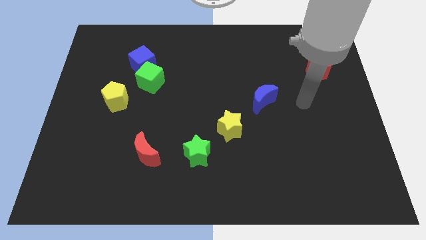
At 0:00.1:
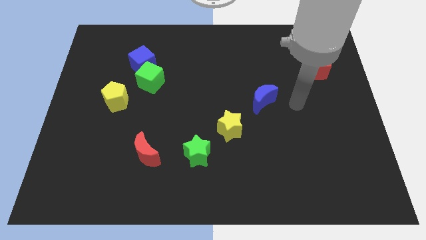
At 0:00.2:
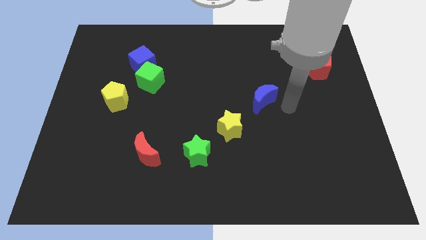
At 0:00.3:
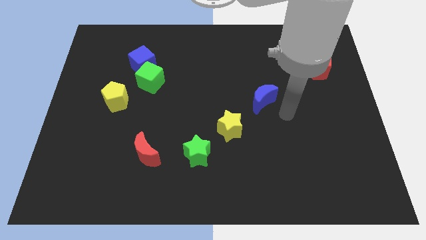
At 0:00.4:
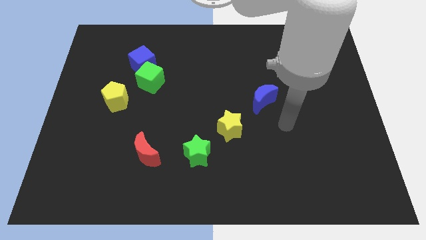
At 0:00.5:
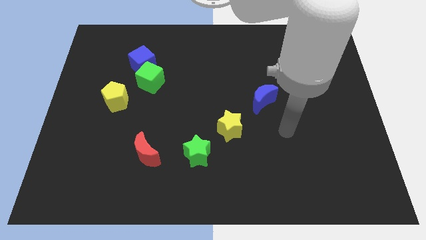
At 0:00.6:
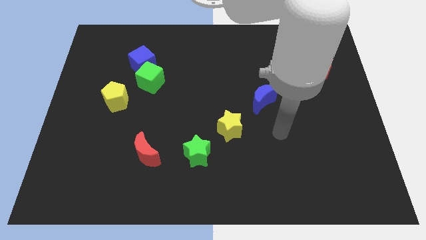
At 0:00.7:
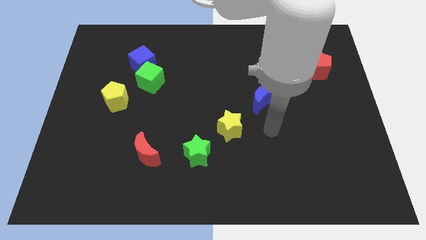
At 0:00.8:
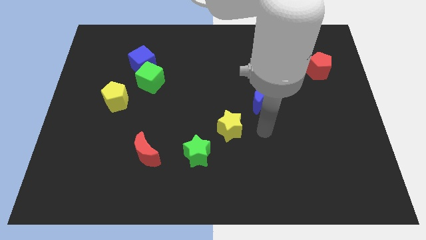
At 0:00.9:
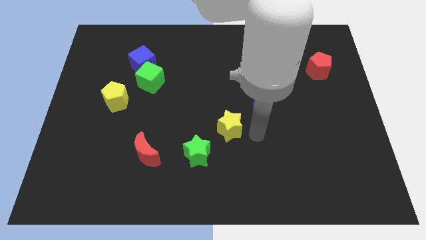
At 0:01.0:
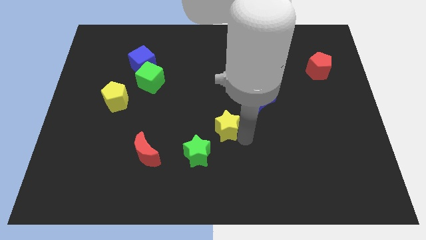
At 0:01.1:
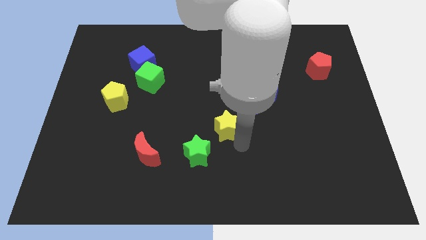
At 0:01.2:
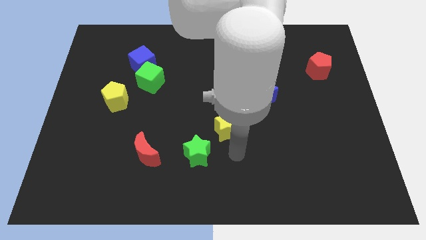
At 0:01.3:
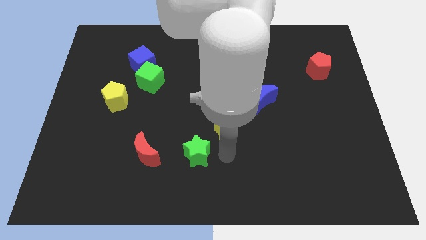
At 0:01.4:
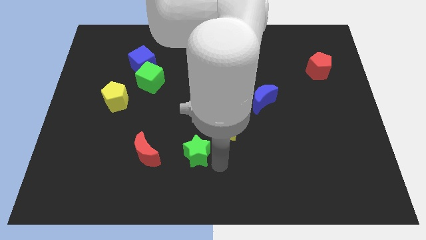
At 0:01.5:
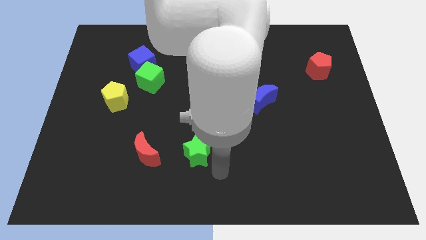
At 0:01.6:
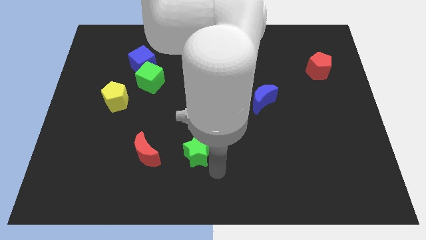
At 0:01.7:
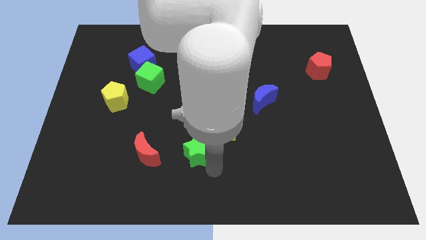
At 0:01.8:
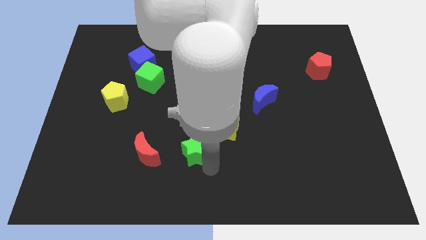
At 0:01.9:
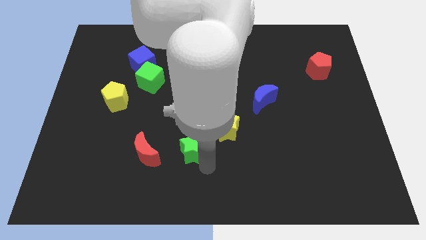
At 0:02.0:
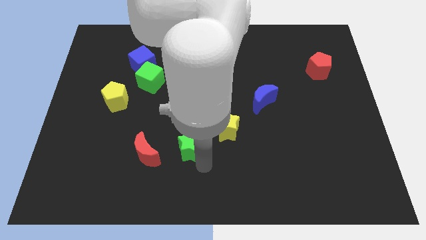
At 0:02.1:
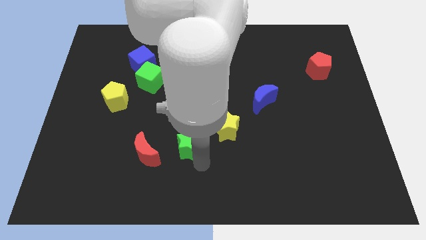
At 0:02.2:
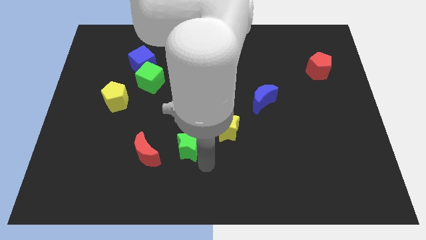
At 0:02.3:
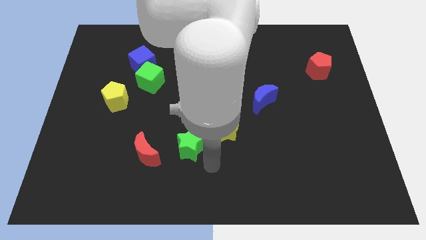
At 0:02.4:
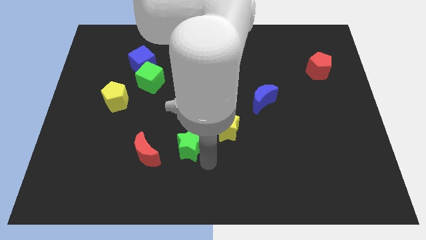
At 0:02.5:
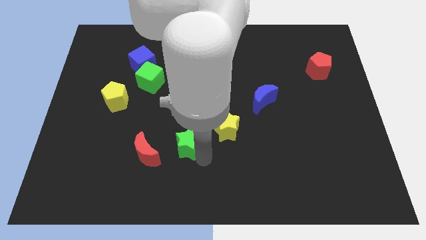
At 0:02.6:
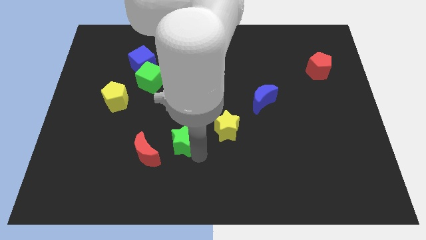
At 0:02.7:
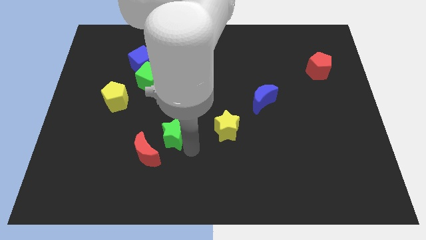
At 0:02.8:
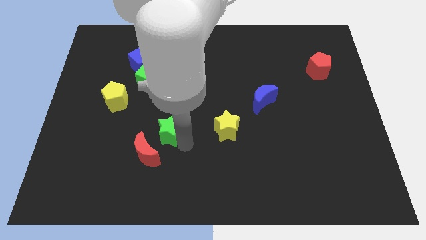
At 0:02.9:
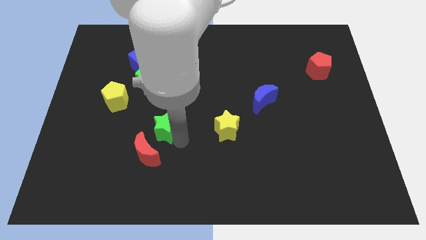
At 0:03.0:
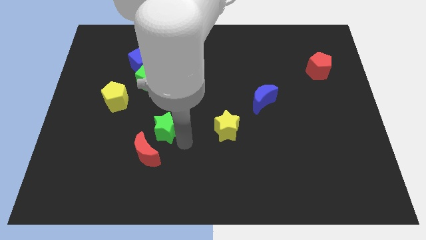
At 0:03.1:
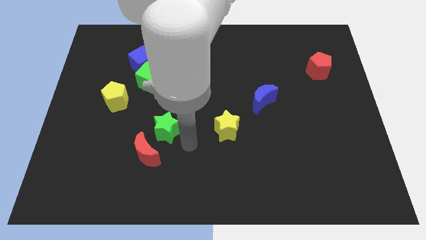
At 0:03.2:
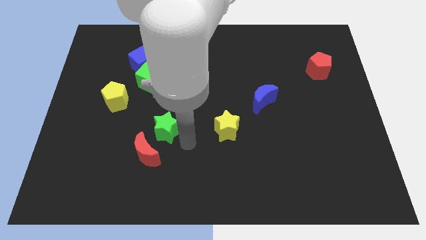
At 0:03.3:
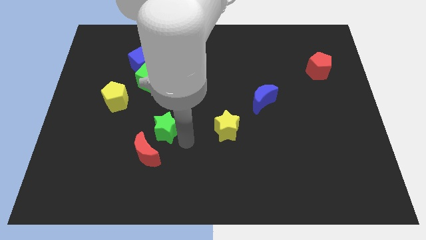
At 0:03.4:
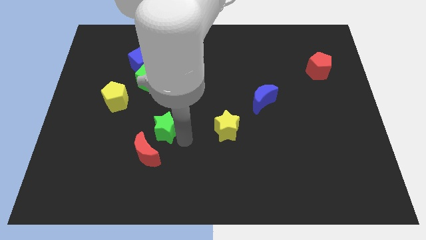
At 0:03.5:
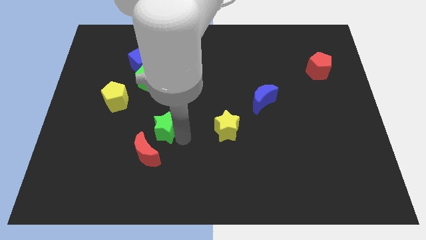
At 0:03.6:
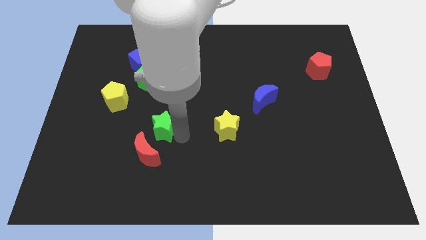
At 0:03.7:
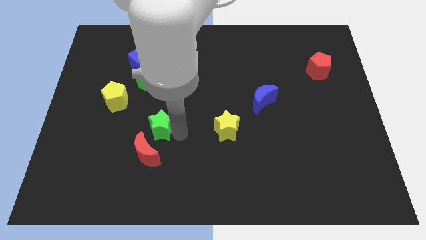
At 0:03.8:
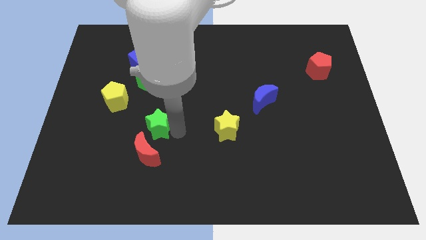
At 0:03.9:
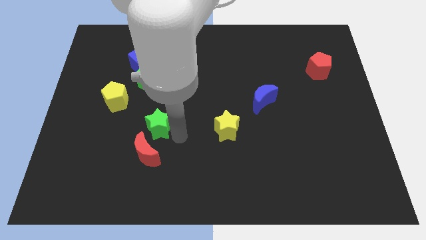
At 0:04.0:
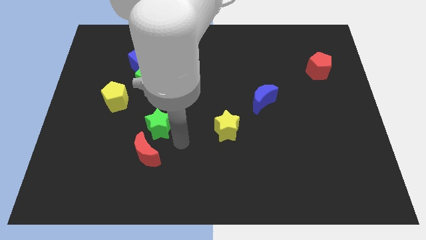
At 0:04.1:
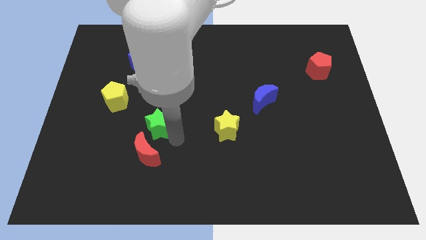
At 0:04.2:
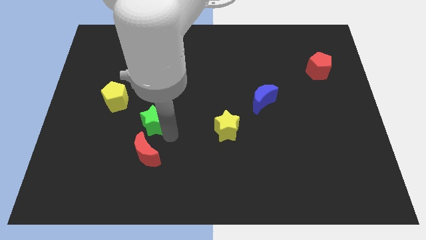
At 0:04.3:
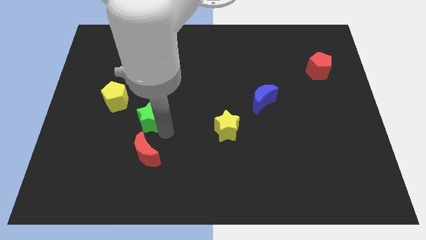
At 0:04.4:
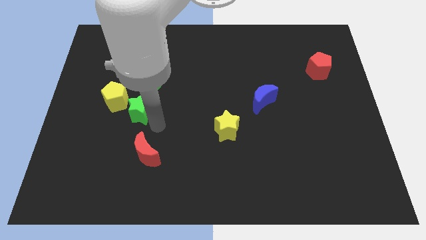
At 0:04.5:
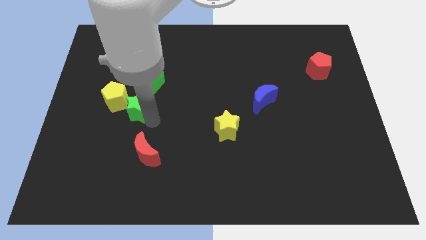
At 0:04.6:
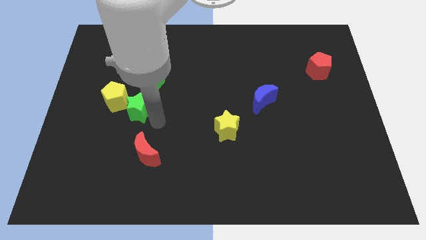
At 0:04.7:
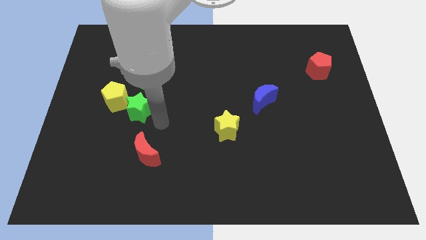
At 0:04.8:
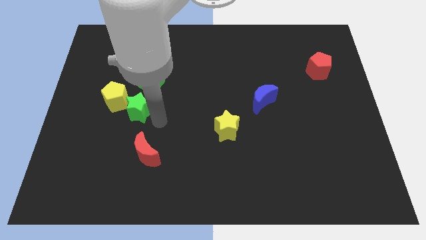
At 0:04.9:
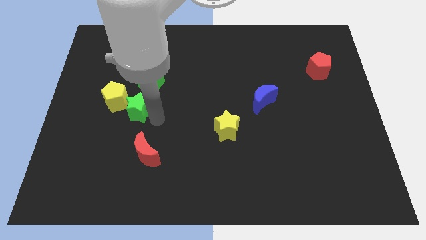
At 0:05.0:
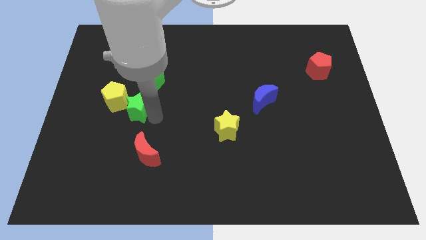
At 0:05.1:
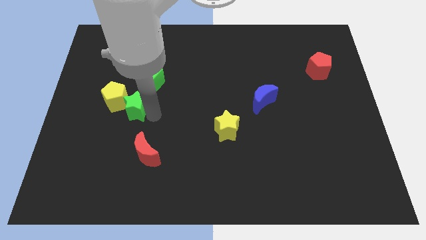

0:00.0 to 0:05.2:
move the green star next to the yellow pentagon

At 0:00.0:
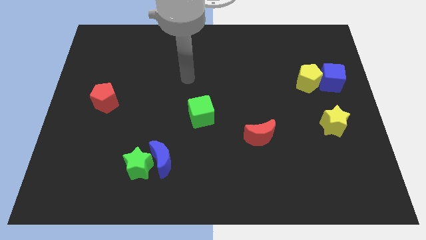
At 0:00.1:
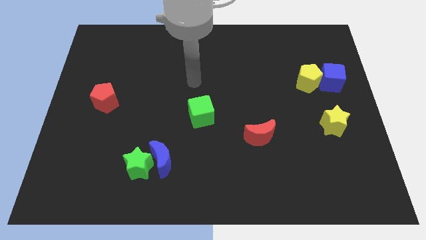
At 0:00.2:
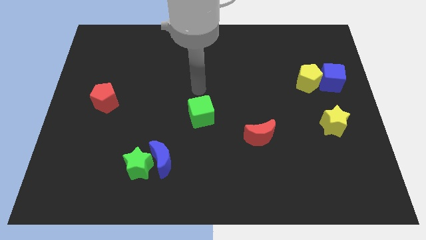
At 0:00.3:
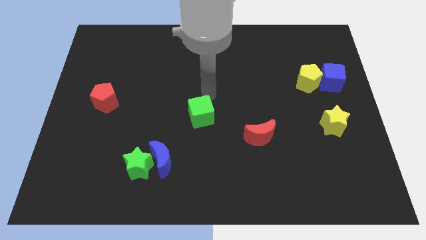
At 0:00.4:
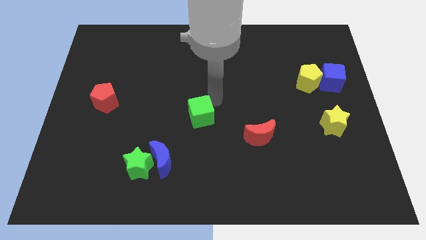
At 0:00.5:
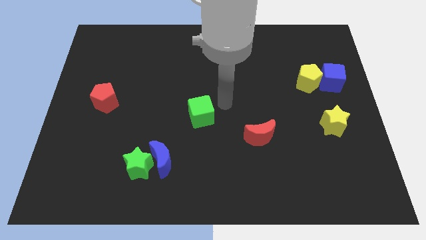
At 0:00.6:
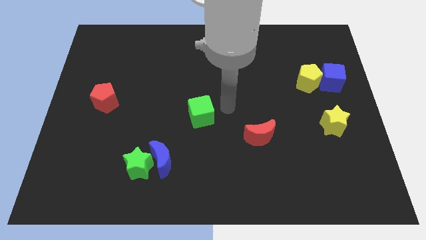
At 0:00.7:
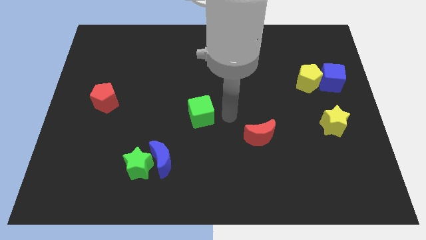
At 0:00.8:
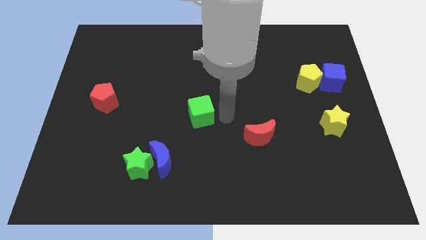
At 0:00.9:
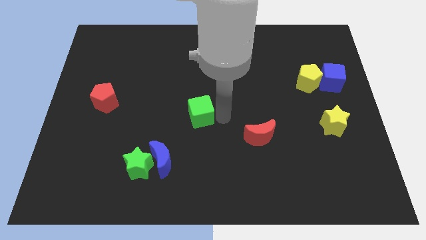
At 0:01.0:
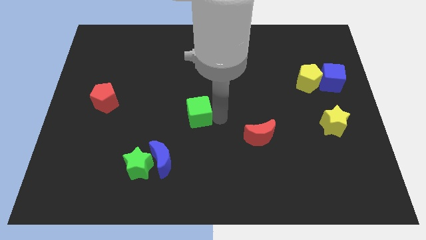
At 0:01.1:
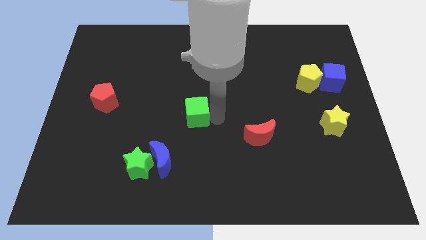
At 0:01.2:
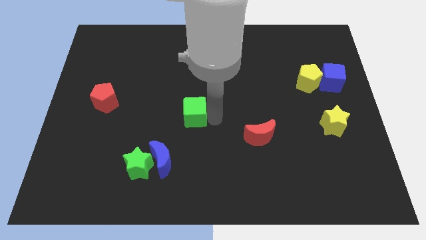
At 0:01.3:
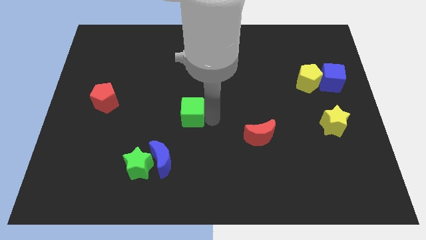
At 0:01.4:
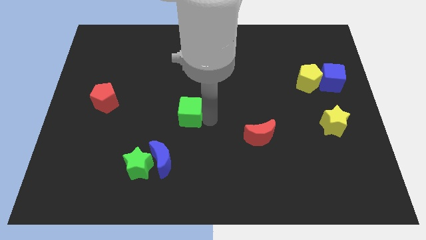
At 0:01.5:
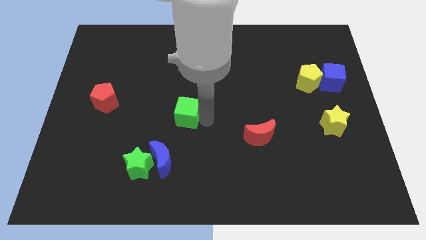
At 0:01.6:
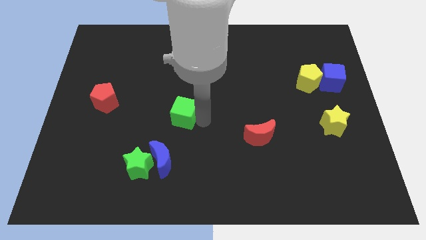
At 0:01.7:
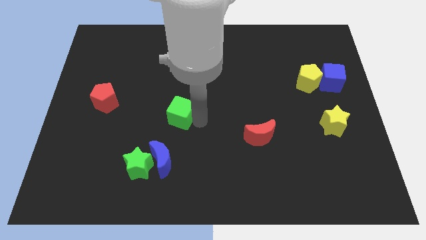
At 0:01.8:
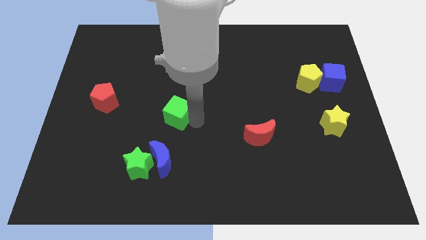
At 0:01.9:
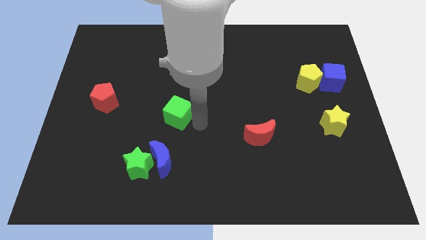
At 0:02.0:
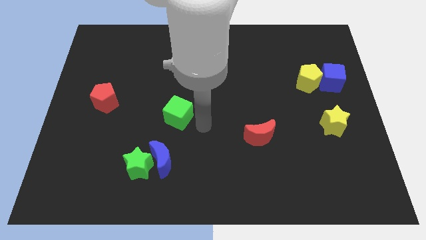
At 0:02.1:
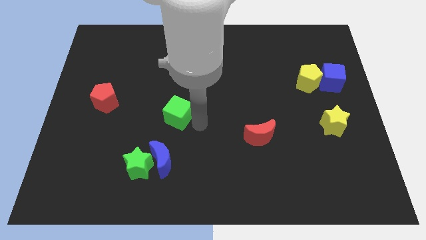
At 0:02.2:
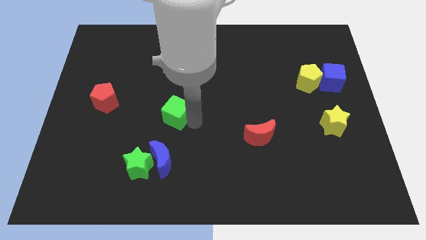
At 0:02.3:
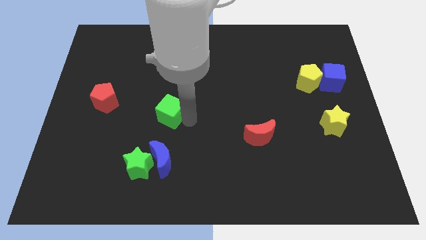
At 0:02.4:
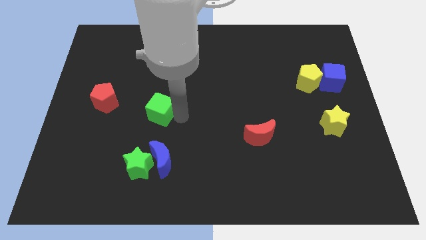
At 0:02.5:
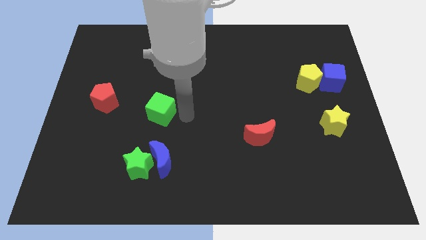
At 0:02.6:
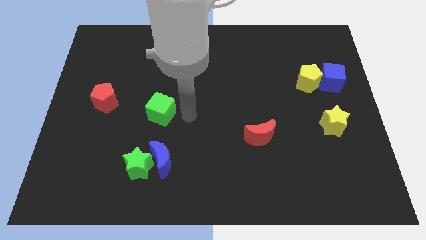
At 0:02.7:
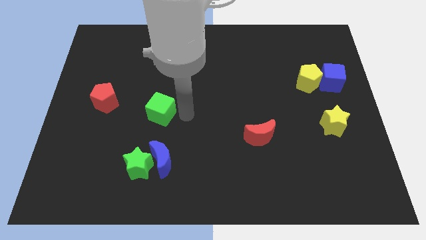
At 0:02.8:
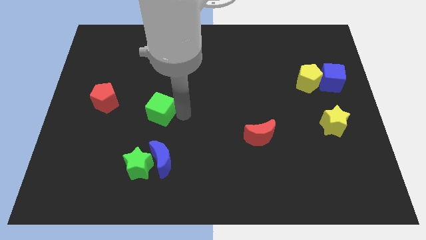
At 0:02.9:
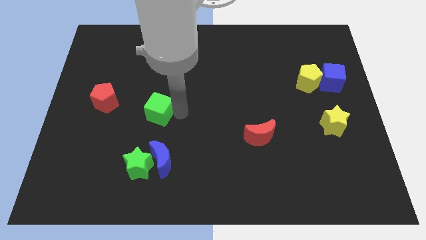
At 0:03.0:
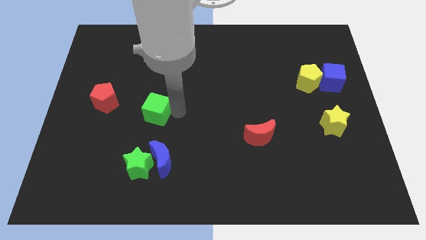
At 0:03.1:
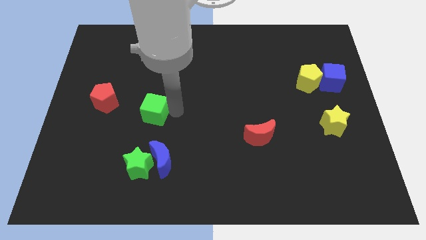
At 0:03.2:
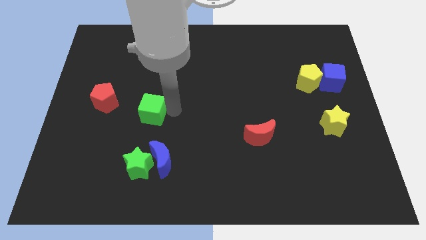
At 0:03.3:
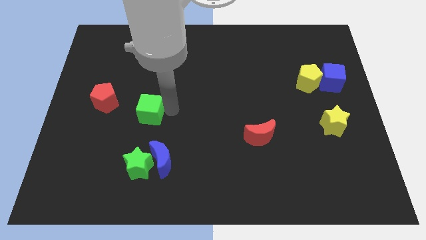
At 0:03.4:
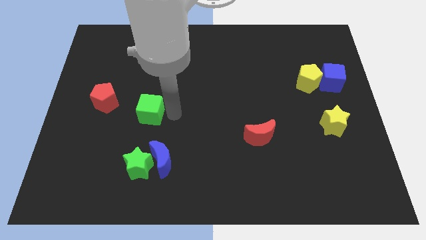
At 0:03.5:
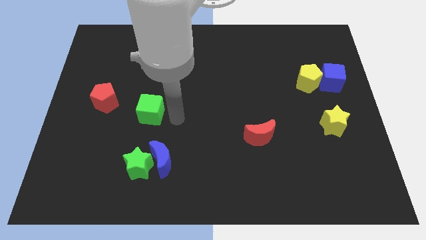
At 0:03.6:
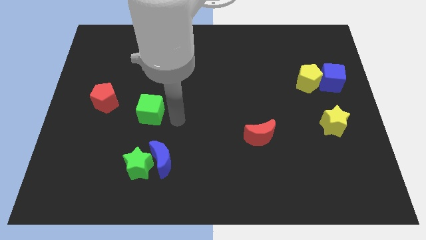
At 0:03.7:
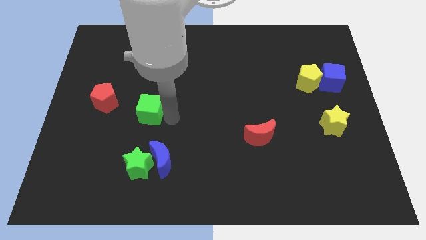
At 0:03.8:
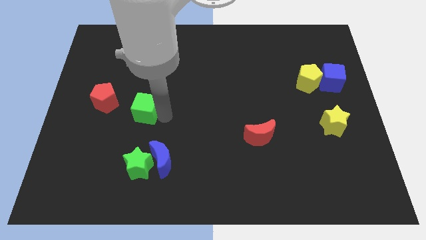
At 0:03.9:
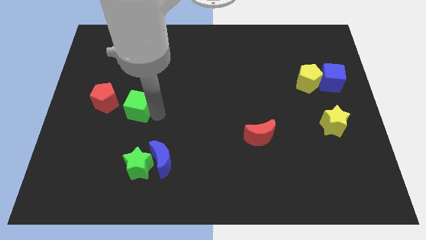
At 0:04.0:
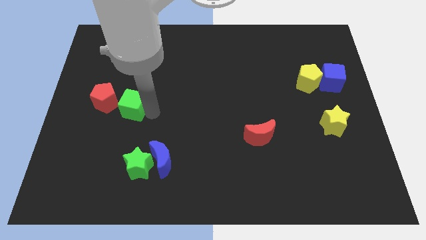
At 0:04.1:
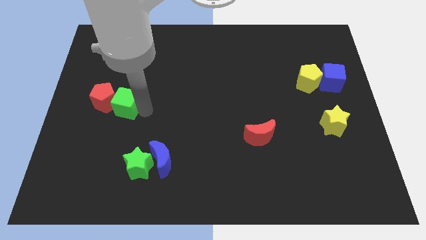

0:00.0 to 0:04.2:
put the green cube towards the red pentagon
